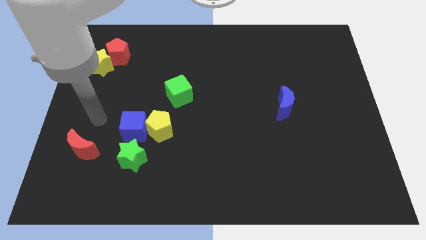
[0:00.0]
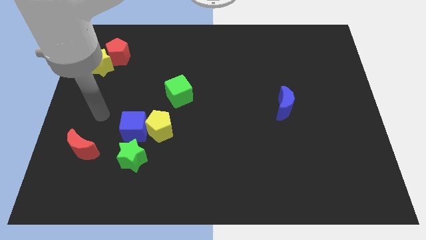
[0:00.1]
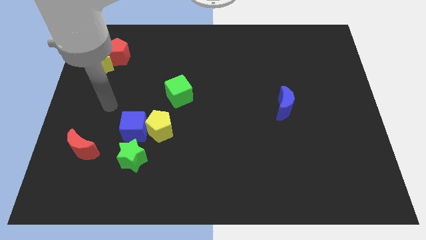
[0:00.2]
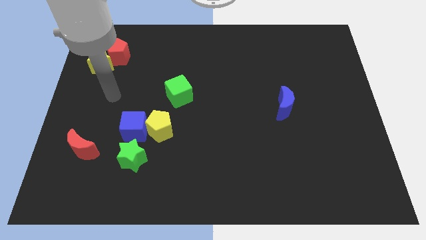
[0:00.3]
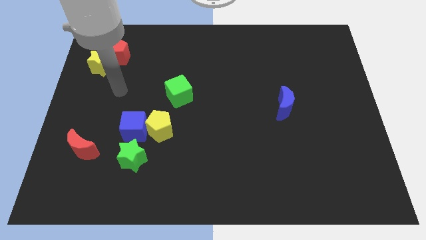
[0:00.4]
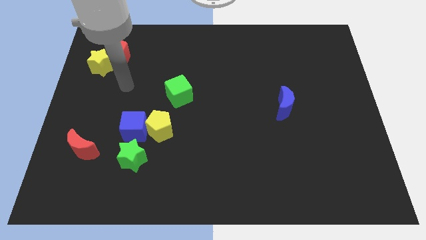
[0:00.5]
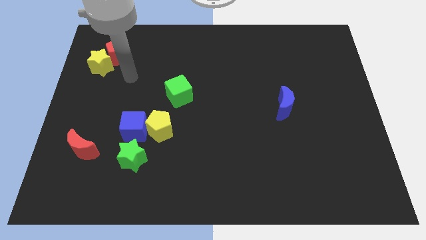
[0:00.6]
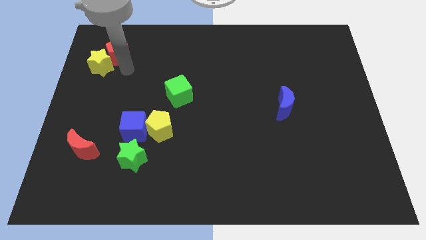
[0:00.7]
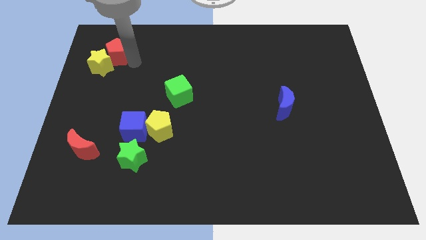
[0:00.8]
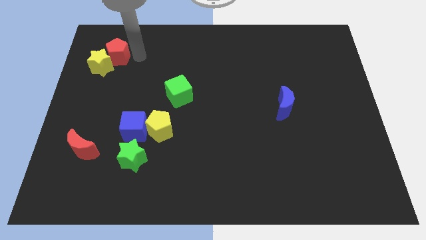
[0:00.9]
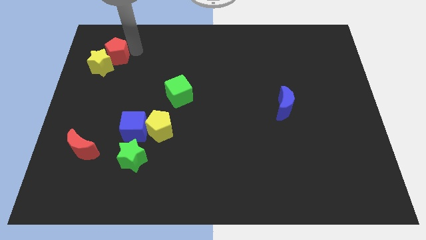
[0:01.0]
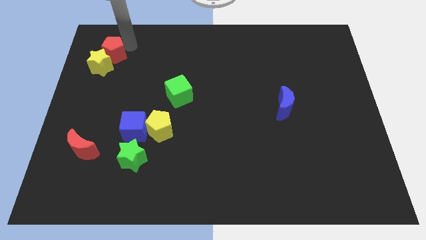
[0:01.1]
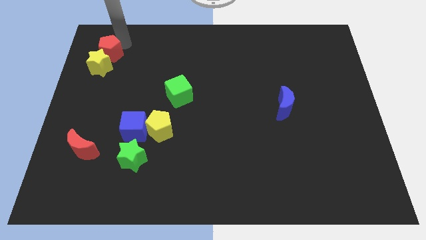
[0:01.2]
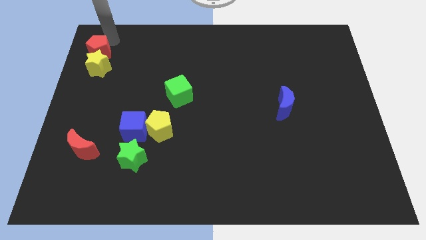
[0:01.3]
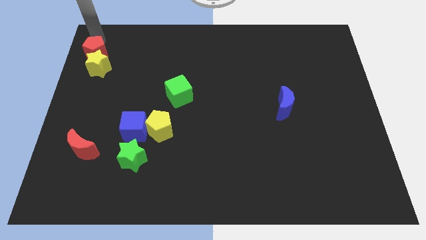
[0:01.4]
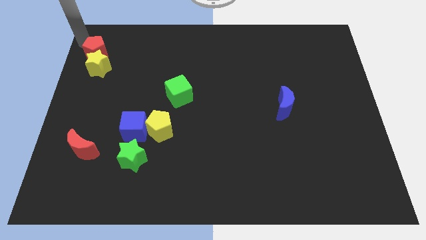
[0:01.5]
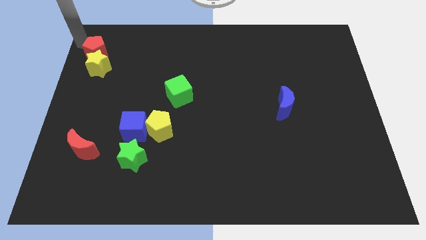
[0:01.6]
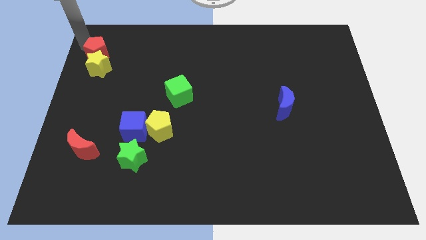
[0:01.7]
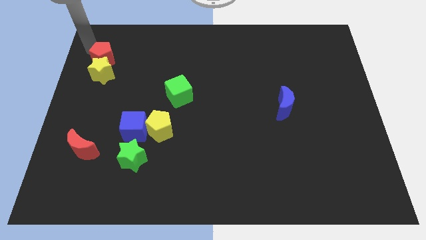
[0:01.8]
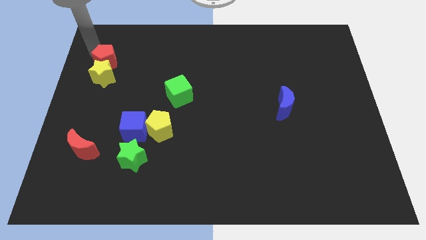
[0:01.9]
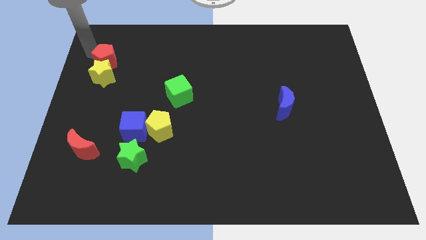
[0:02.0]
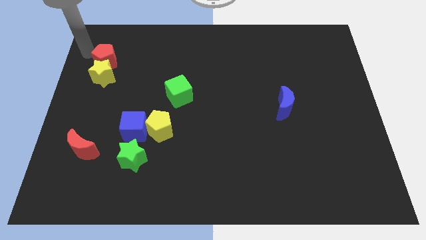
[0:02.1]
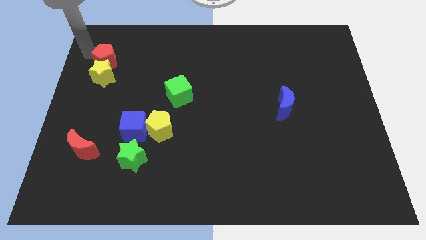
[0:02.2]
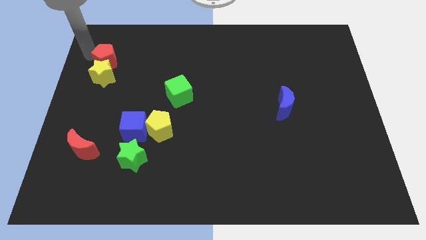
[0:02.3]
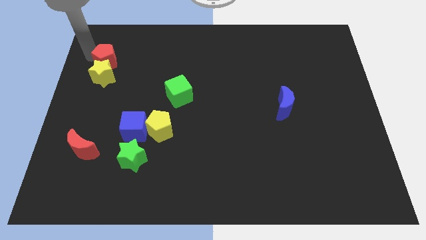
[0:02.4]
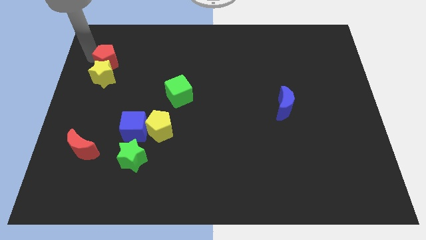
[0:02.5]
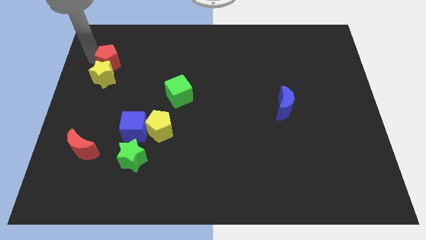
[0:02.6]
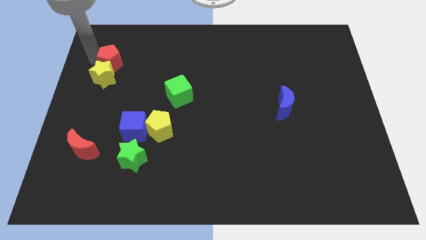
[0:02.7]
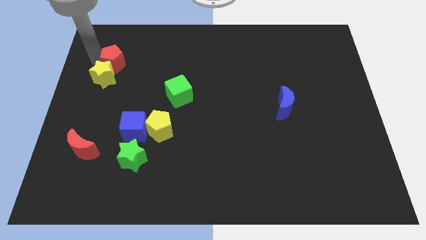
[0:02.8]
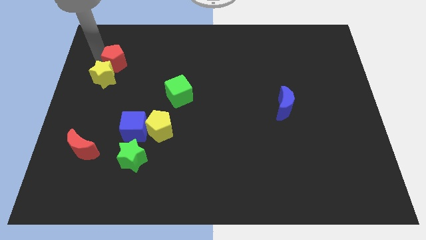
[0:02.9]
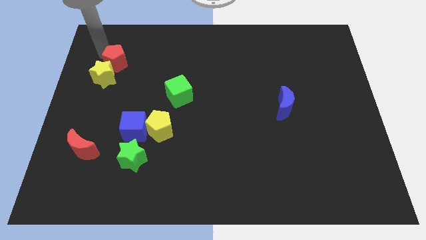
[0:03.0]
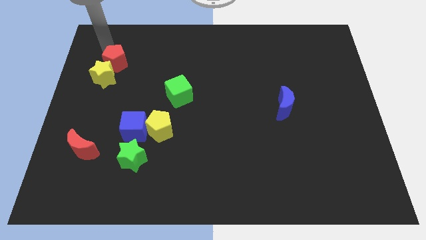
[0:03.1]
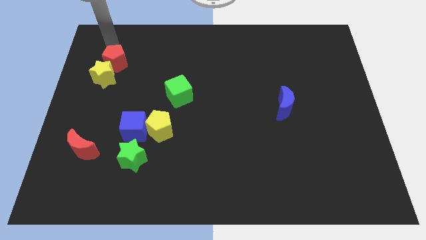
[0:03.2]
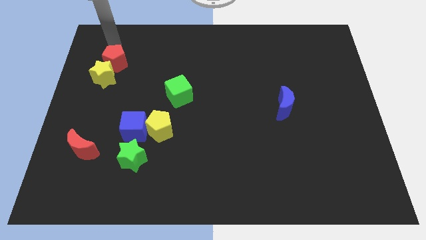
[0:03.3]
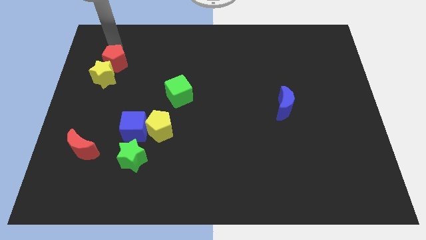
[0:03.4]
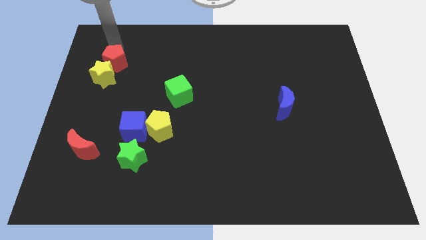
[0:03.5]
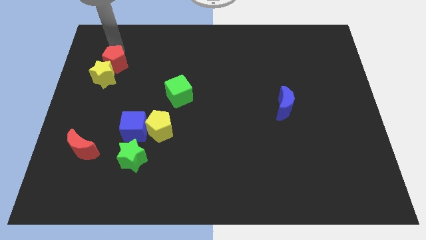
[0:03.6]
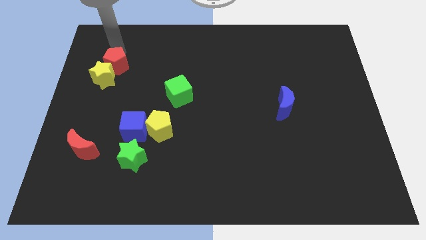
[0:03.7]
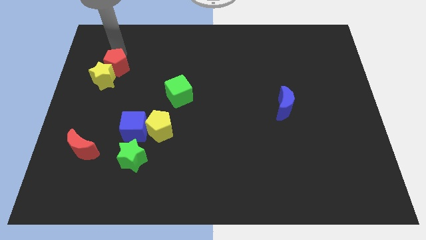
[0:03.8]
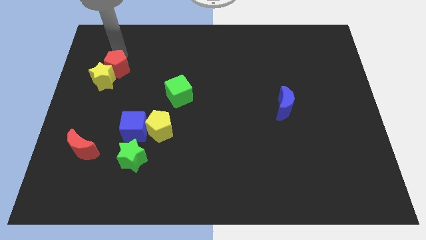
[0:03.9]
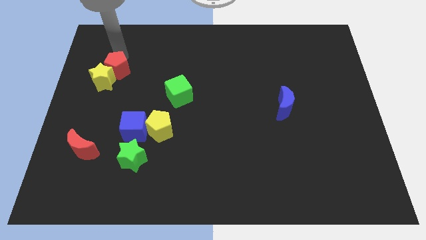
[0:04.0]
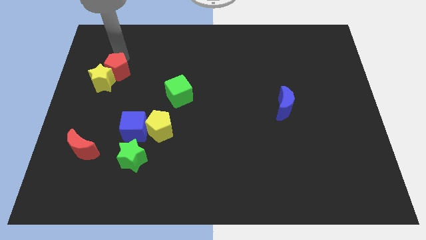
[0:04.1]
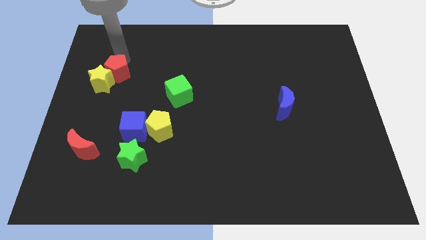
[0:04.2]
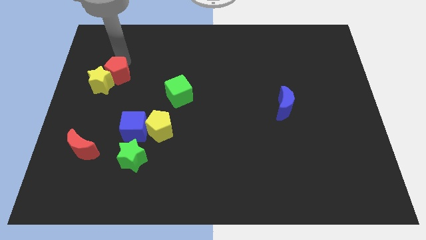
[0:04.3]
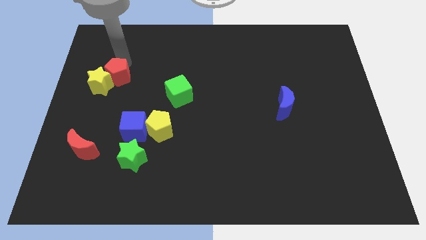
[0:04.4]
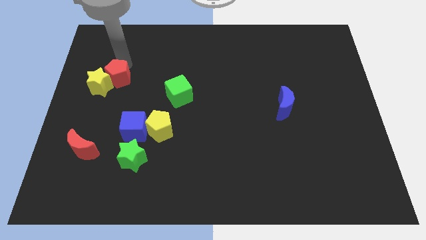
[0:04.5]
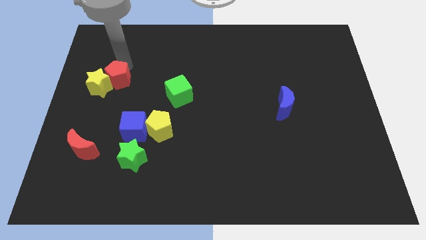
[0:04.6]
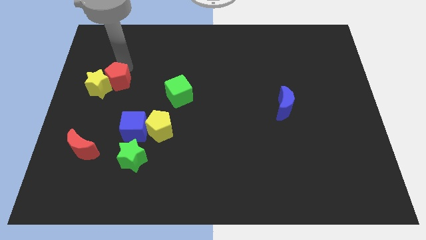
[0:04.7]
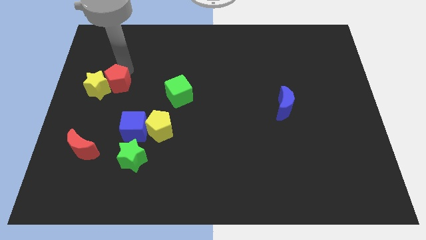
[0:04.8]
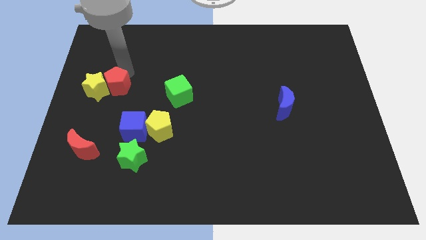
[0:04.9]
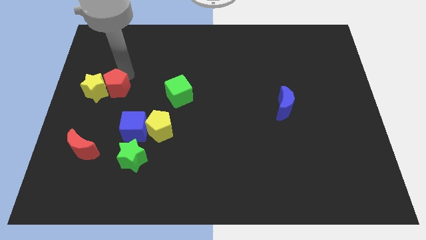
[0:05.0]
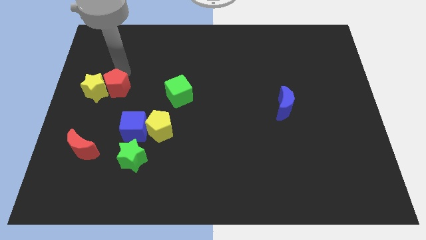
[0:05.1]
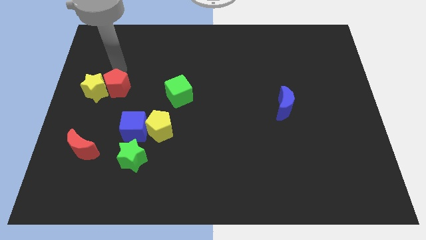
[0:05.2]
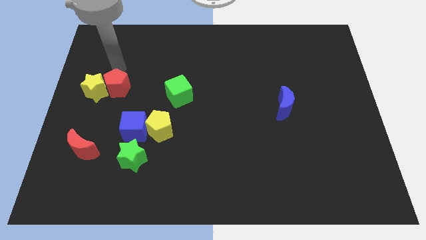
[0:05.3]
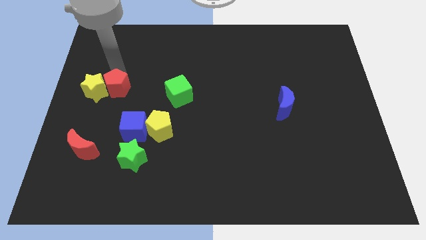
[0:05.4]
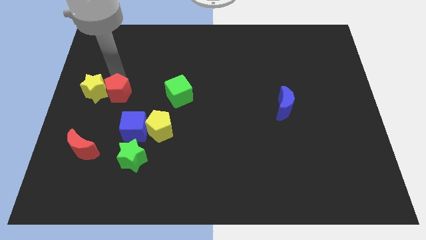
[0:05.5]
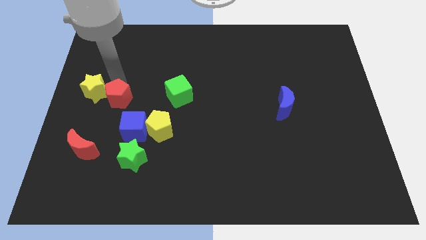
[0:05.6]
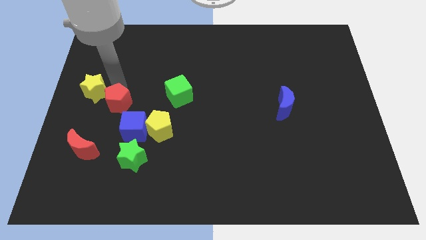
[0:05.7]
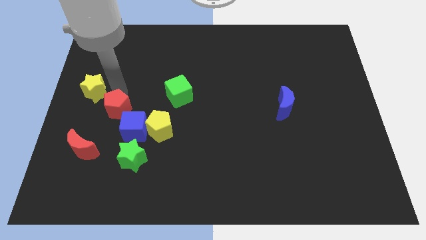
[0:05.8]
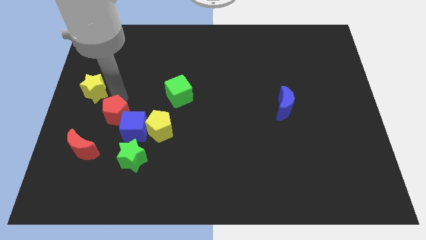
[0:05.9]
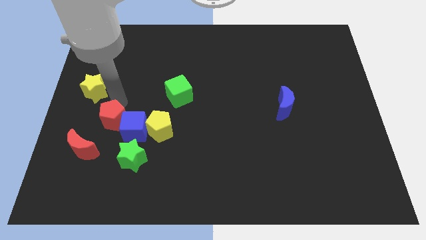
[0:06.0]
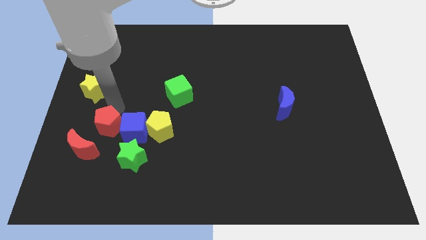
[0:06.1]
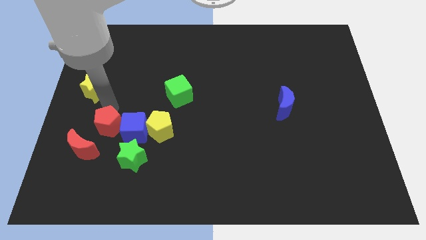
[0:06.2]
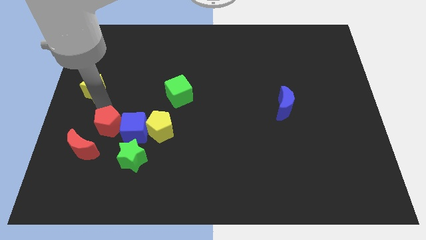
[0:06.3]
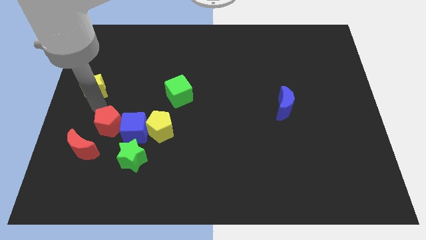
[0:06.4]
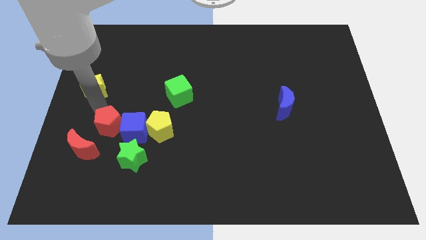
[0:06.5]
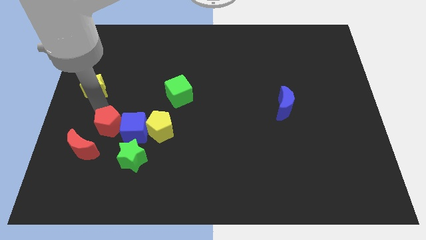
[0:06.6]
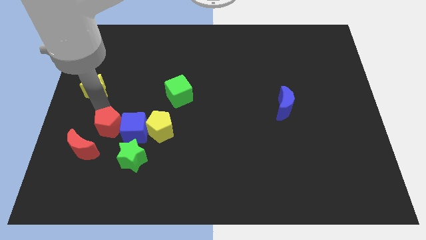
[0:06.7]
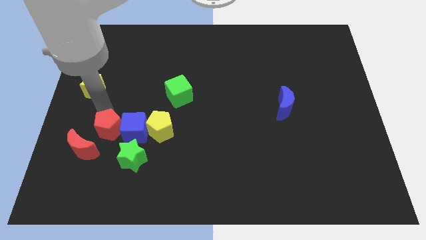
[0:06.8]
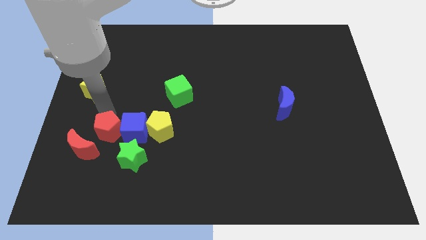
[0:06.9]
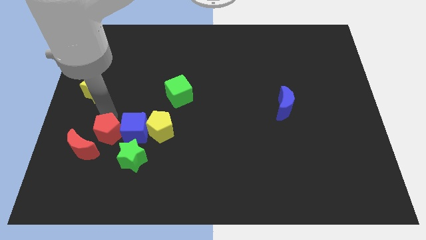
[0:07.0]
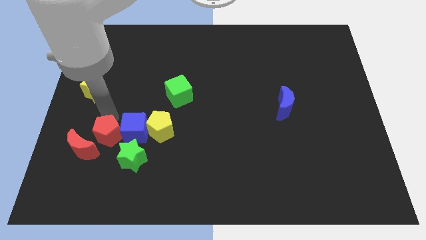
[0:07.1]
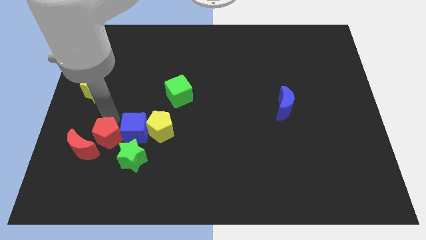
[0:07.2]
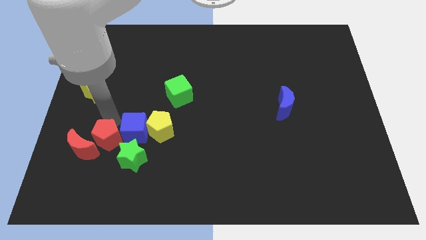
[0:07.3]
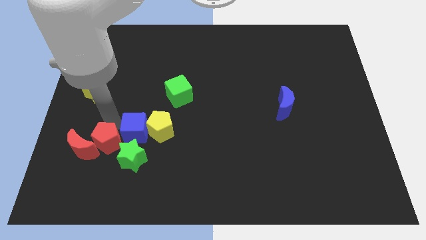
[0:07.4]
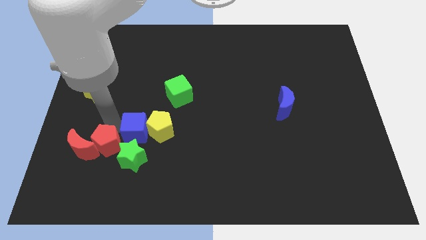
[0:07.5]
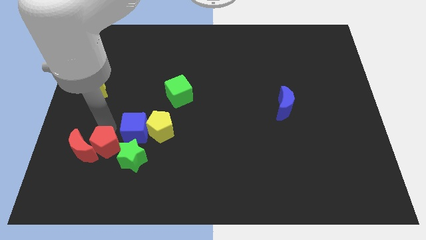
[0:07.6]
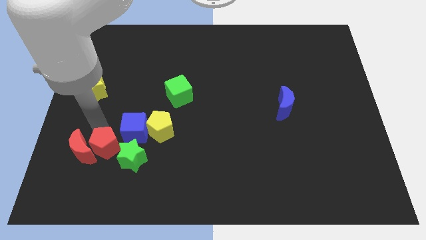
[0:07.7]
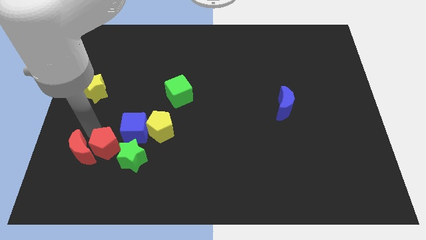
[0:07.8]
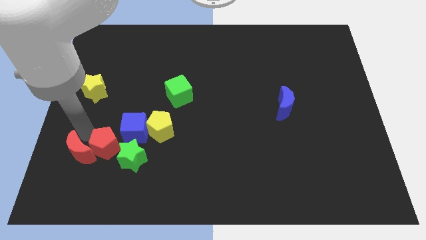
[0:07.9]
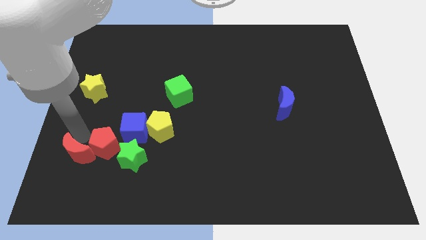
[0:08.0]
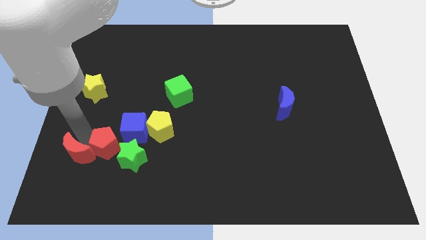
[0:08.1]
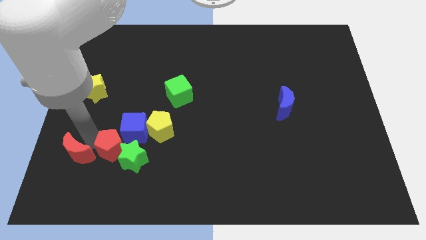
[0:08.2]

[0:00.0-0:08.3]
move the red pentagon to the green star
